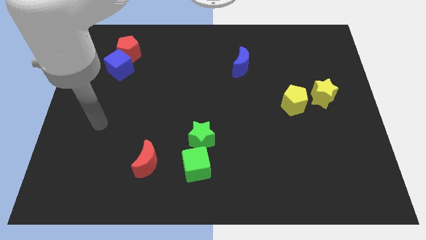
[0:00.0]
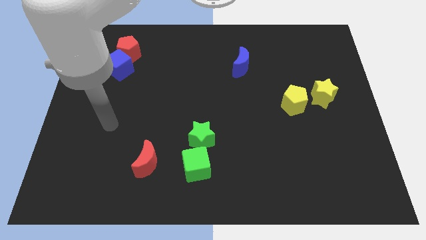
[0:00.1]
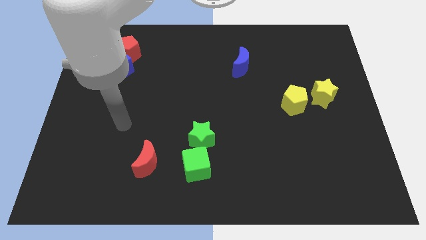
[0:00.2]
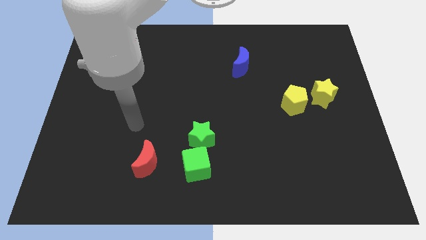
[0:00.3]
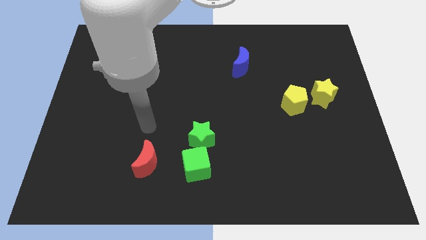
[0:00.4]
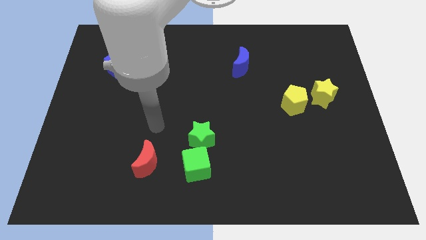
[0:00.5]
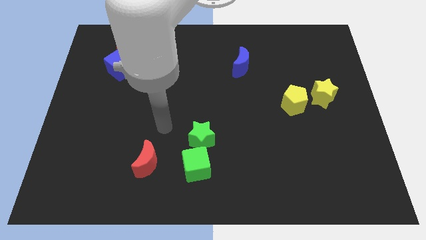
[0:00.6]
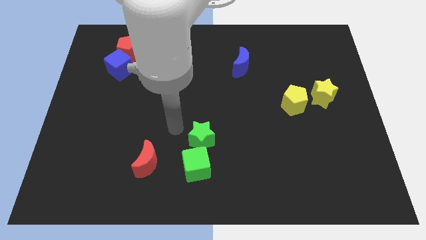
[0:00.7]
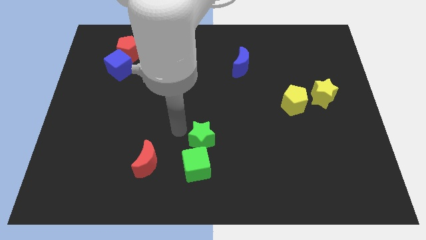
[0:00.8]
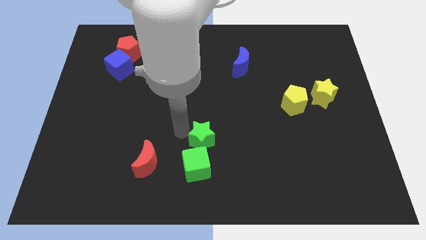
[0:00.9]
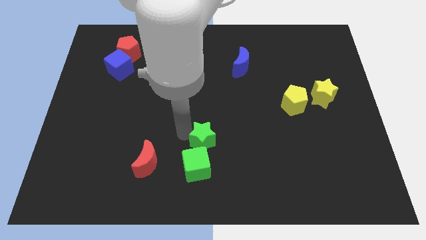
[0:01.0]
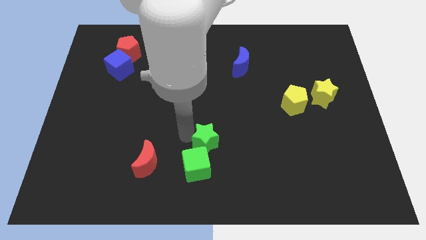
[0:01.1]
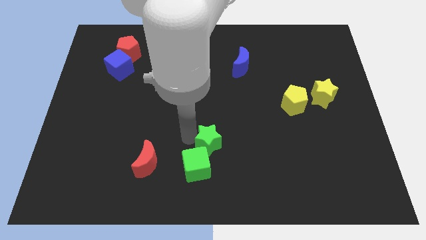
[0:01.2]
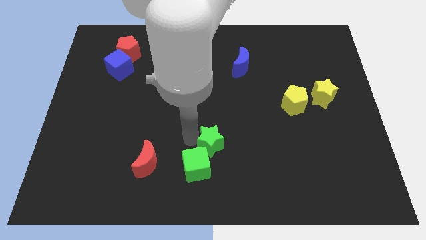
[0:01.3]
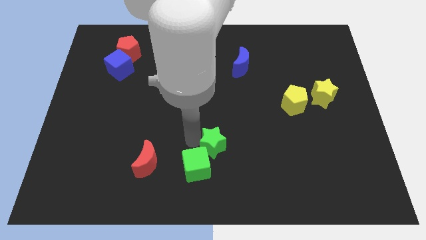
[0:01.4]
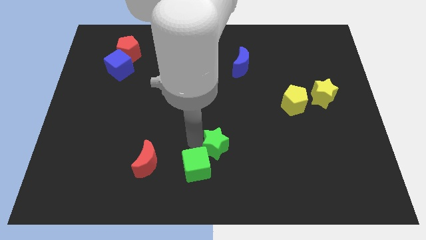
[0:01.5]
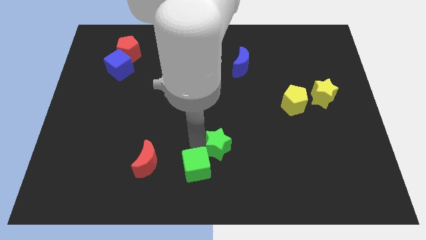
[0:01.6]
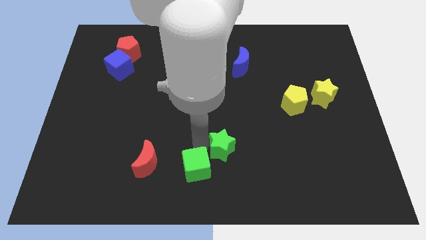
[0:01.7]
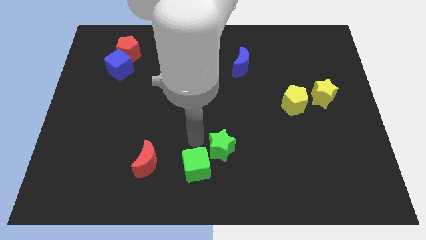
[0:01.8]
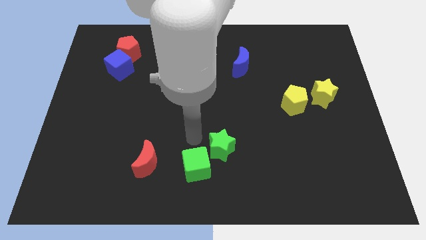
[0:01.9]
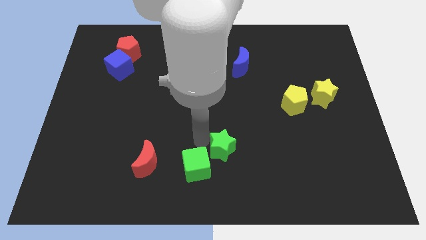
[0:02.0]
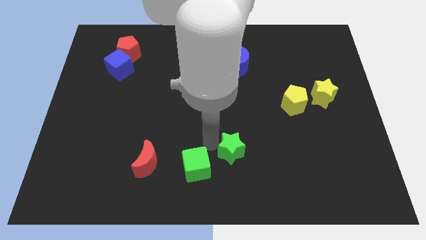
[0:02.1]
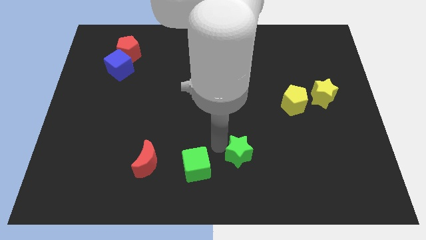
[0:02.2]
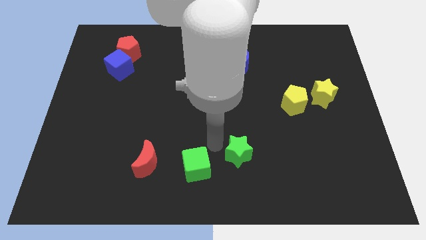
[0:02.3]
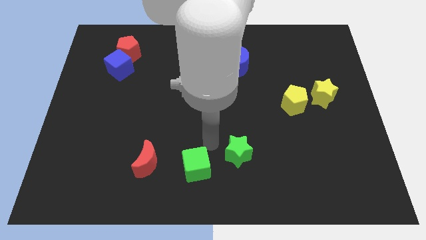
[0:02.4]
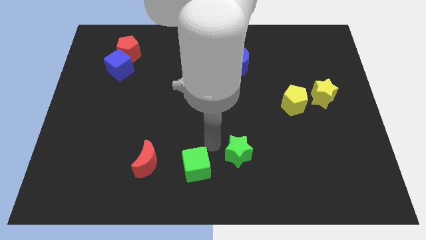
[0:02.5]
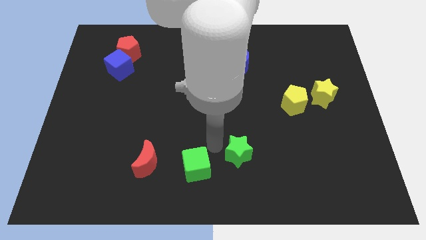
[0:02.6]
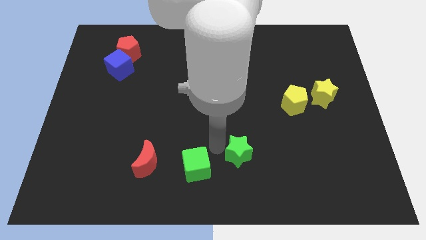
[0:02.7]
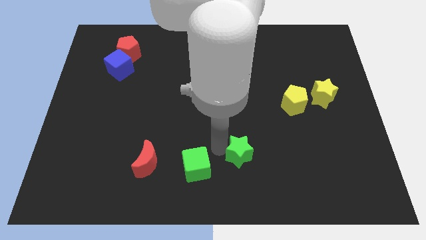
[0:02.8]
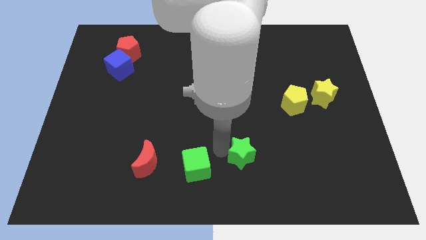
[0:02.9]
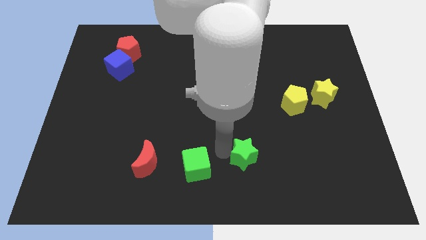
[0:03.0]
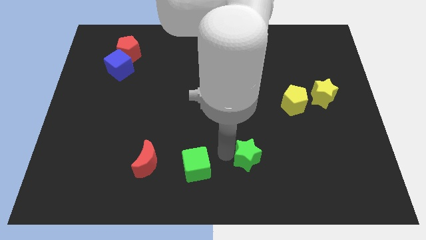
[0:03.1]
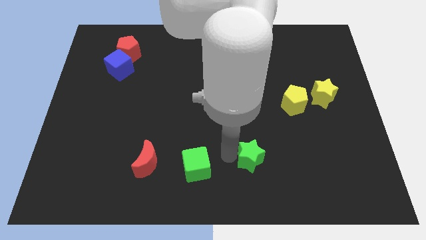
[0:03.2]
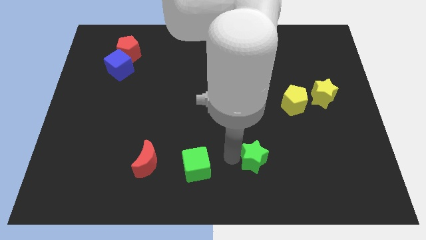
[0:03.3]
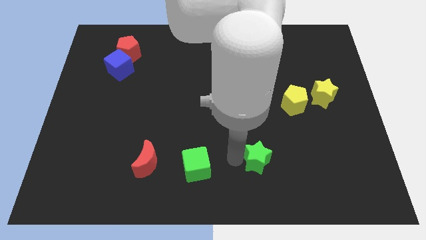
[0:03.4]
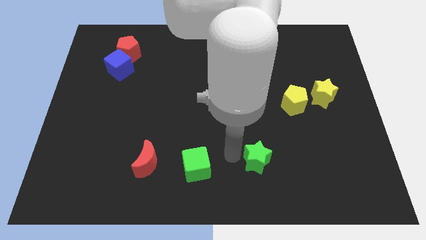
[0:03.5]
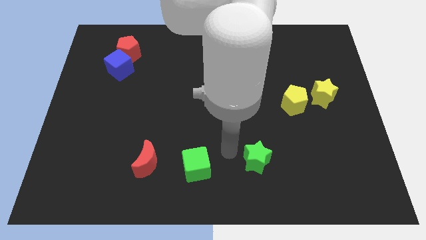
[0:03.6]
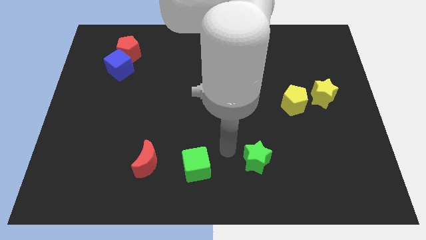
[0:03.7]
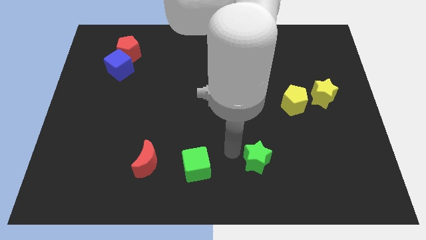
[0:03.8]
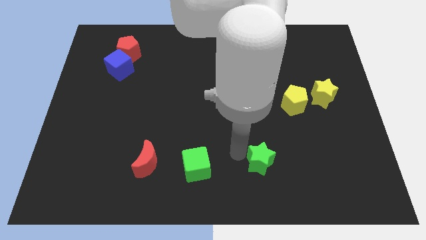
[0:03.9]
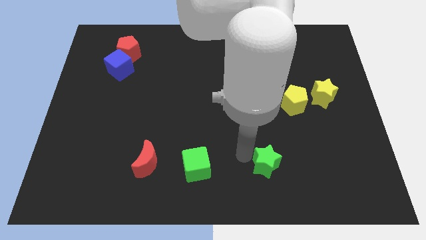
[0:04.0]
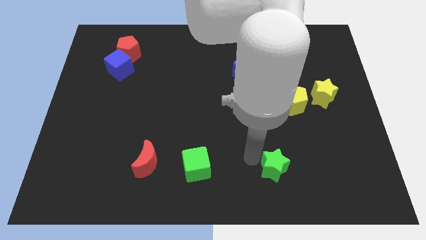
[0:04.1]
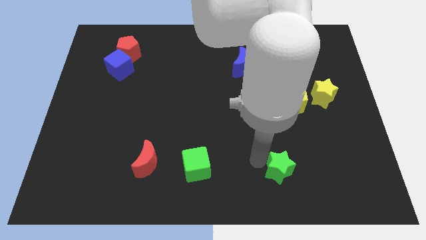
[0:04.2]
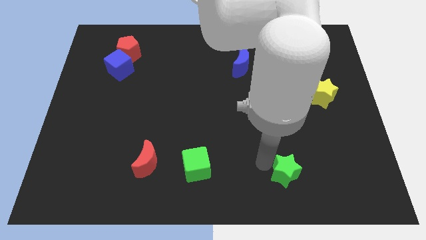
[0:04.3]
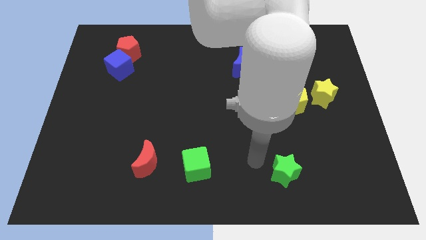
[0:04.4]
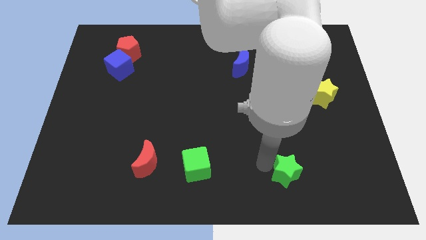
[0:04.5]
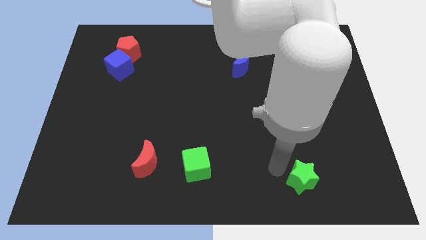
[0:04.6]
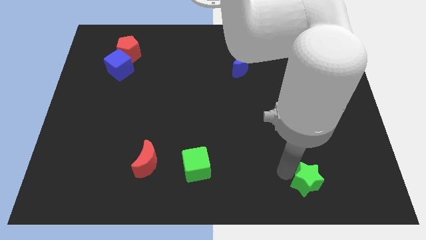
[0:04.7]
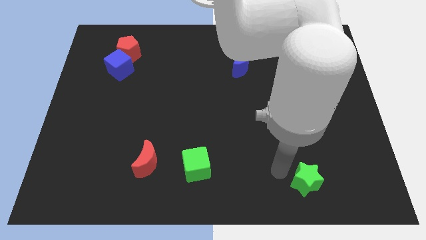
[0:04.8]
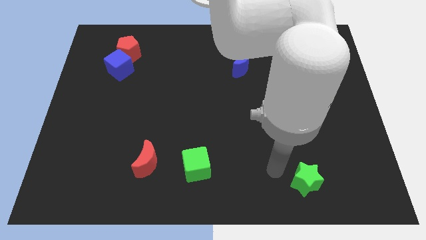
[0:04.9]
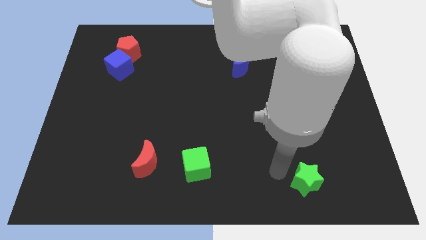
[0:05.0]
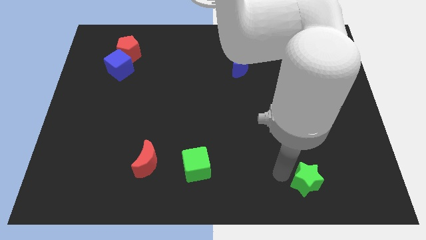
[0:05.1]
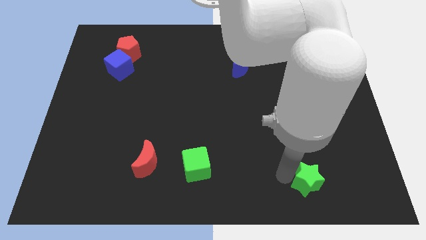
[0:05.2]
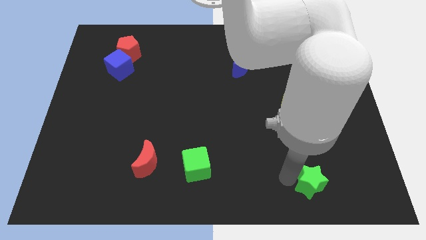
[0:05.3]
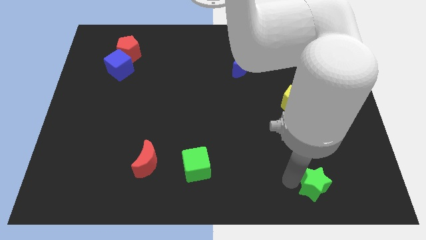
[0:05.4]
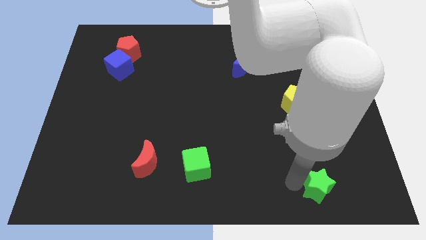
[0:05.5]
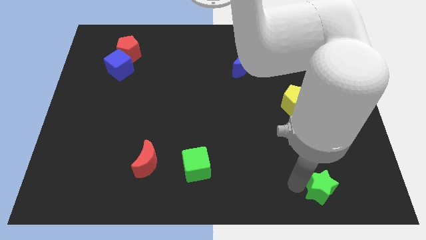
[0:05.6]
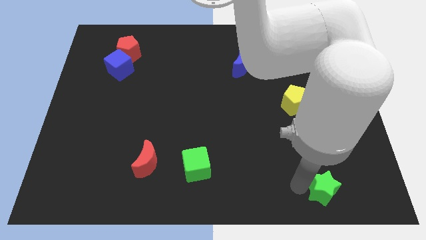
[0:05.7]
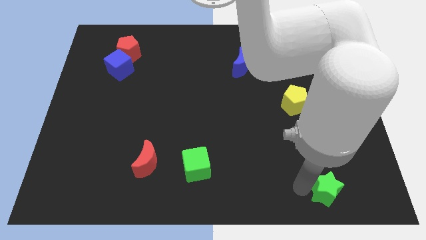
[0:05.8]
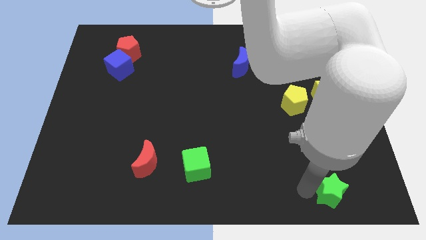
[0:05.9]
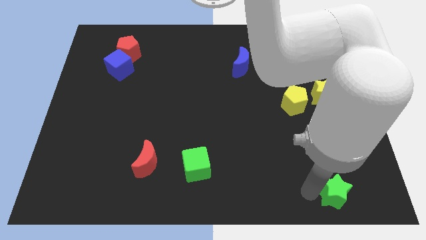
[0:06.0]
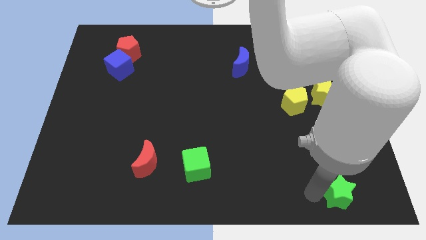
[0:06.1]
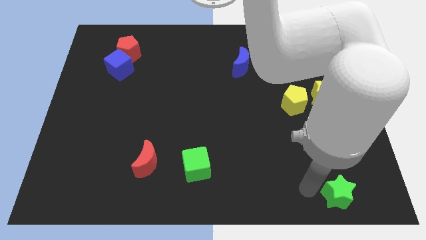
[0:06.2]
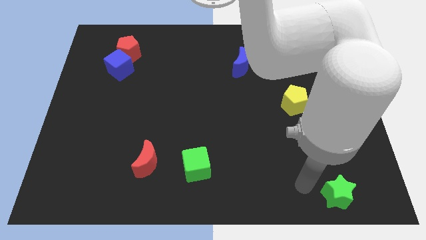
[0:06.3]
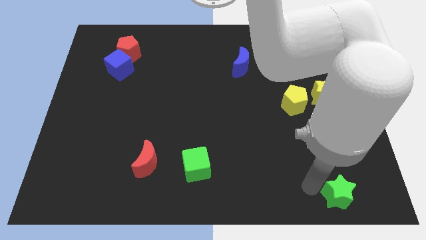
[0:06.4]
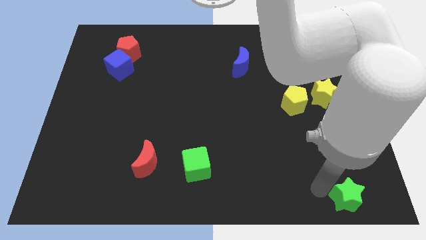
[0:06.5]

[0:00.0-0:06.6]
push the green star to the bottom right
